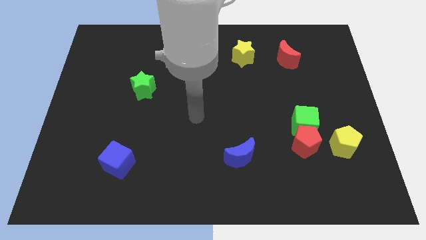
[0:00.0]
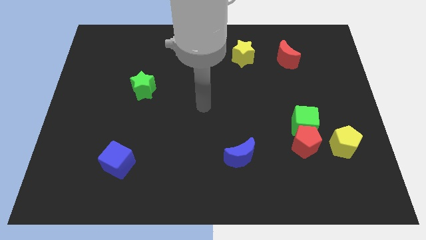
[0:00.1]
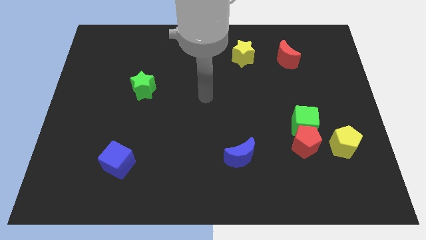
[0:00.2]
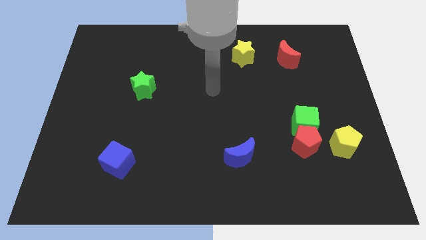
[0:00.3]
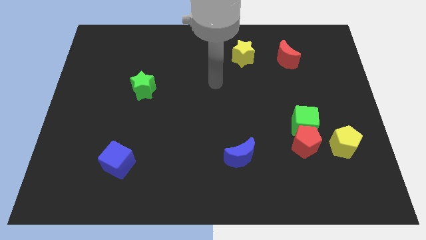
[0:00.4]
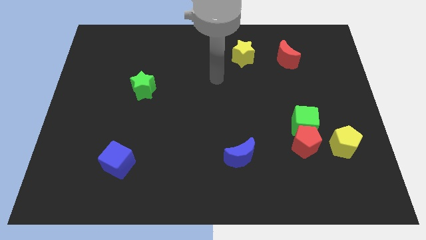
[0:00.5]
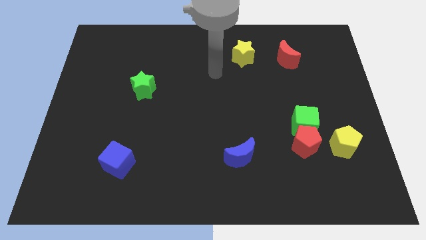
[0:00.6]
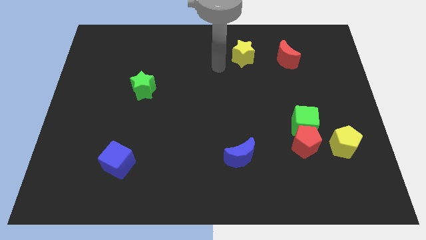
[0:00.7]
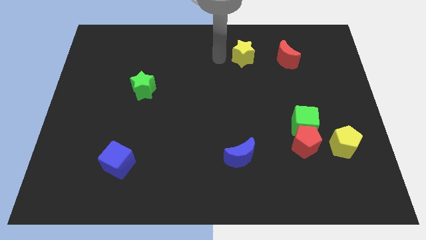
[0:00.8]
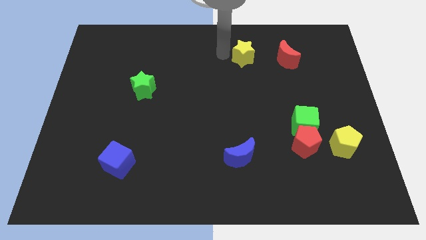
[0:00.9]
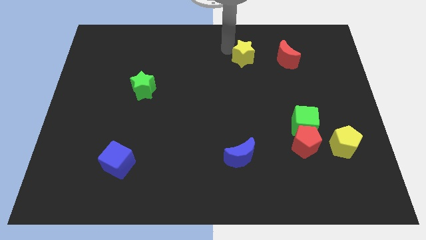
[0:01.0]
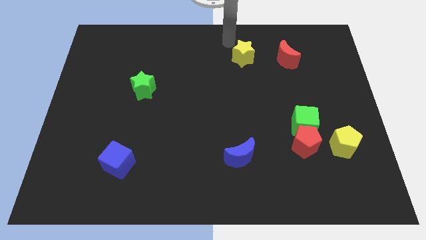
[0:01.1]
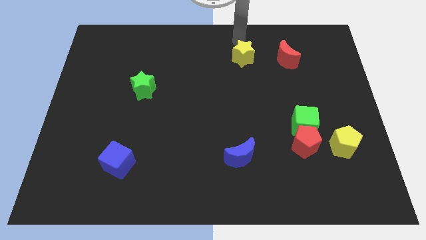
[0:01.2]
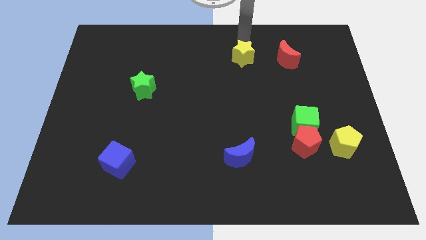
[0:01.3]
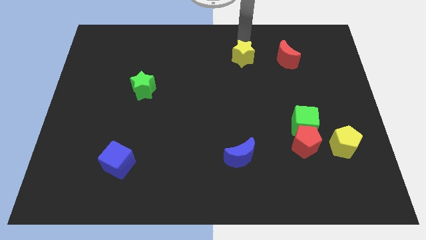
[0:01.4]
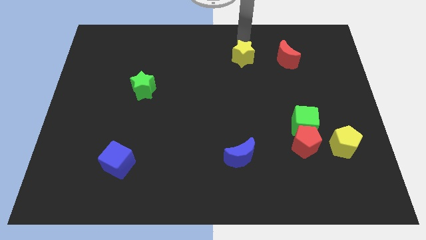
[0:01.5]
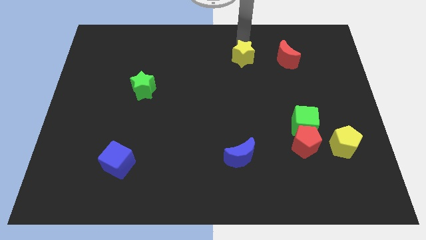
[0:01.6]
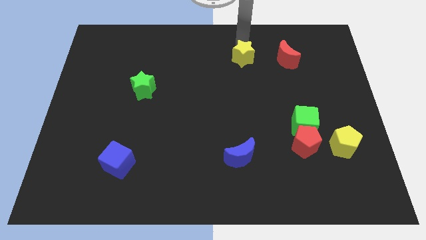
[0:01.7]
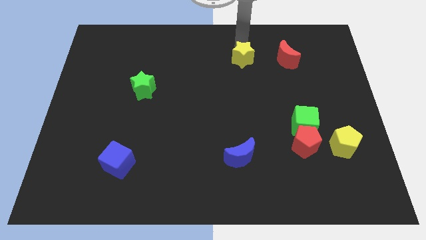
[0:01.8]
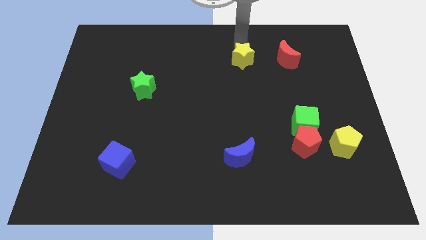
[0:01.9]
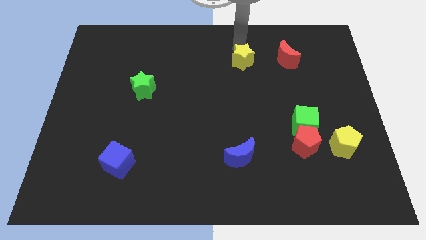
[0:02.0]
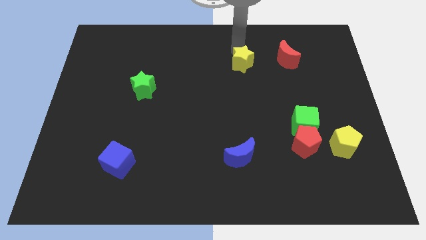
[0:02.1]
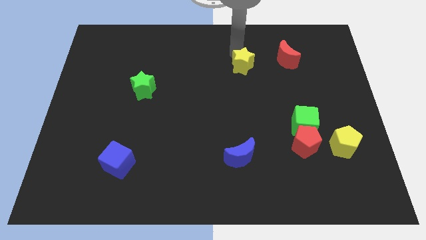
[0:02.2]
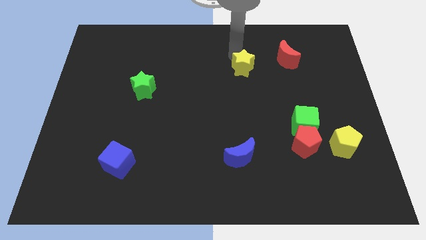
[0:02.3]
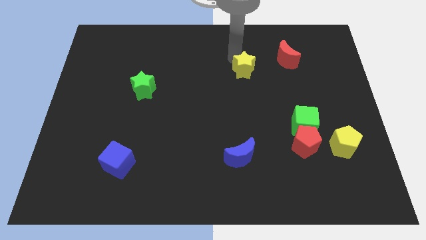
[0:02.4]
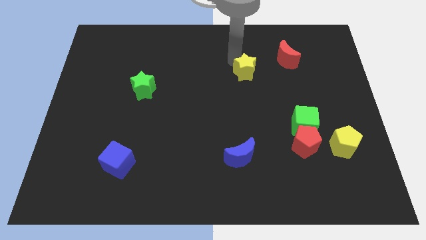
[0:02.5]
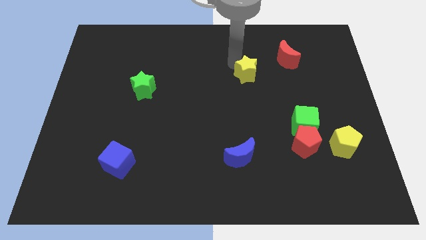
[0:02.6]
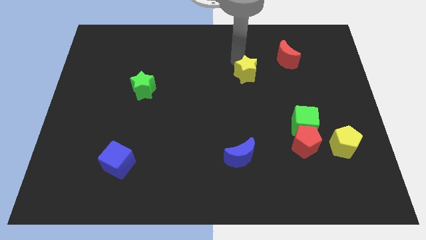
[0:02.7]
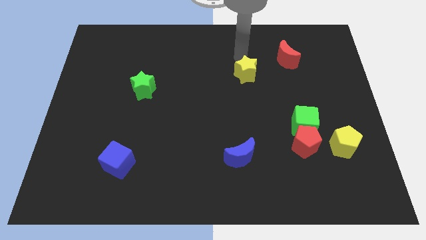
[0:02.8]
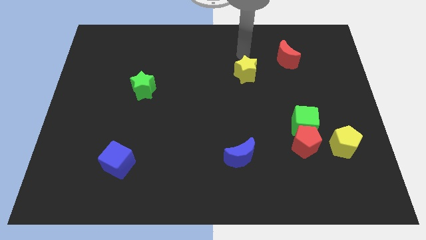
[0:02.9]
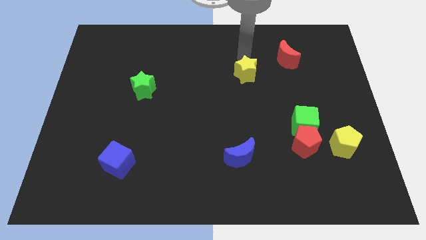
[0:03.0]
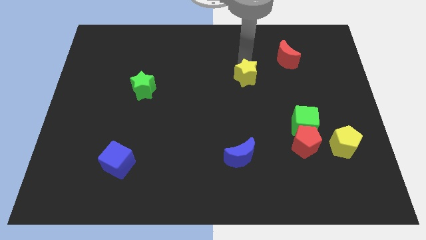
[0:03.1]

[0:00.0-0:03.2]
move the yellow star downwards a bit

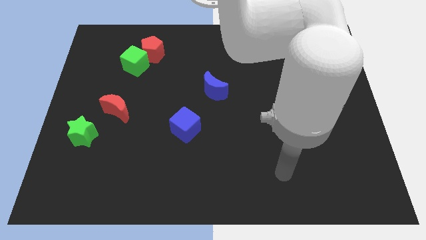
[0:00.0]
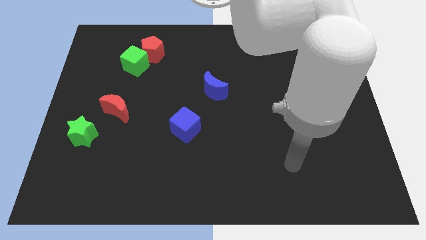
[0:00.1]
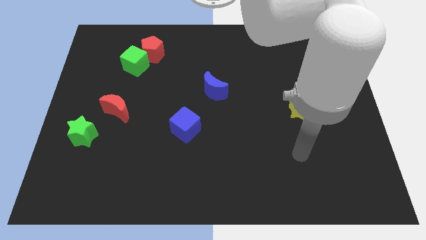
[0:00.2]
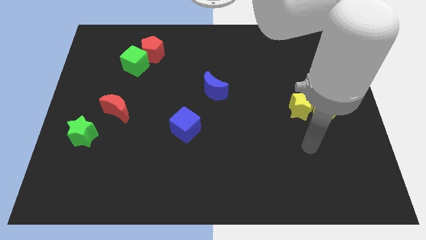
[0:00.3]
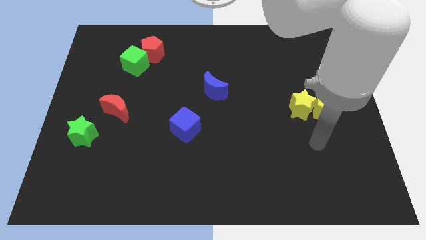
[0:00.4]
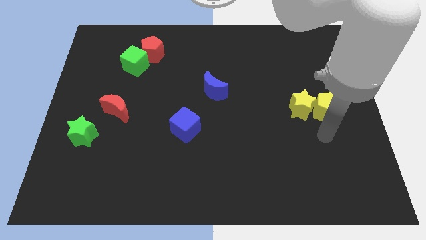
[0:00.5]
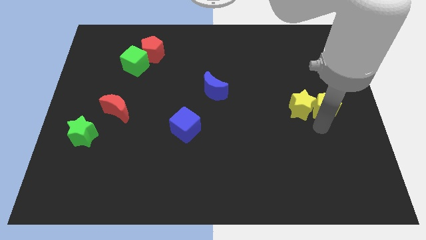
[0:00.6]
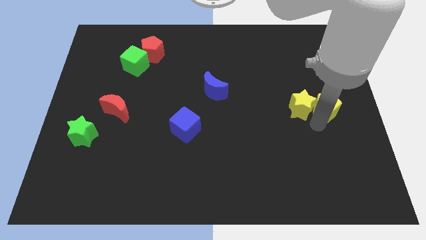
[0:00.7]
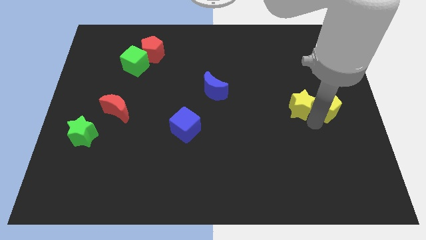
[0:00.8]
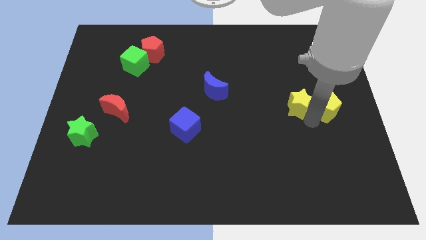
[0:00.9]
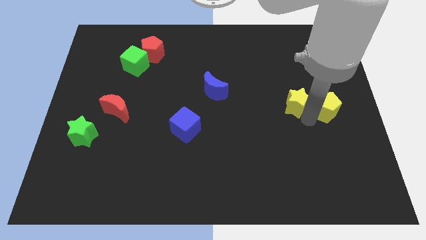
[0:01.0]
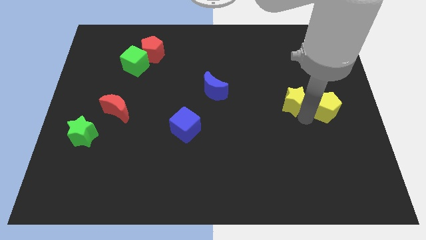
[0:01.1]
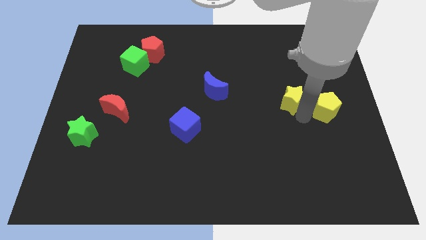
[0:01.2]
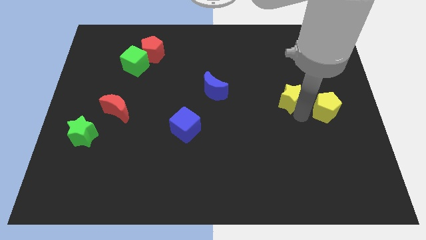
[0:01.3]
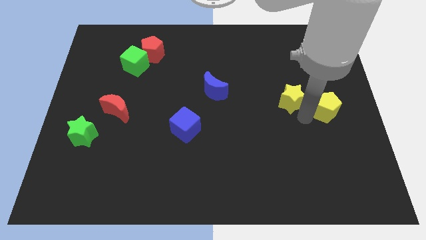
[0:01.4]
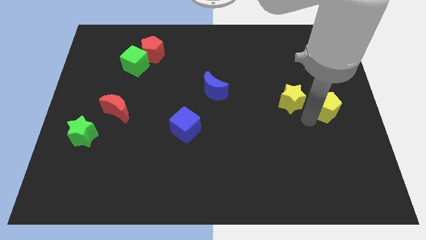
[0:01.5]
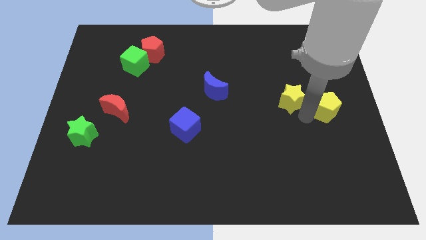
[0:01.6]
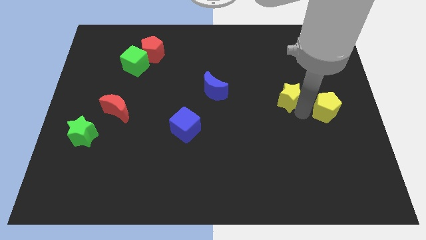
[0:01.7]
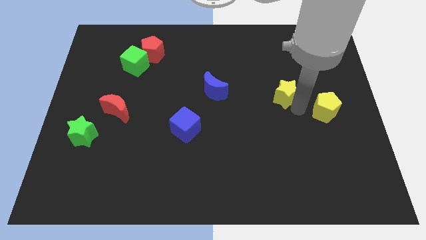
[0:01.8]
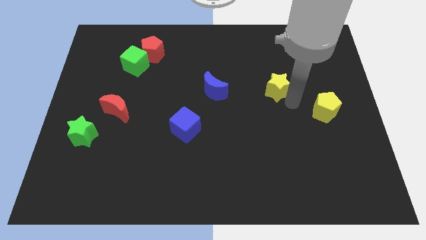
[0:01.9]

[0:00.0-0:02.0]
slide the yellow star upwards and left slightly

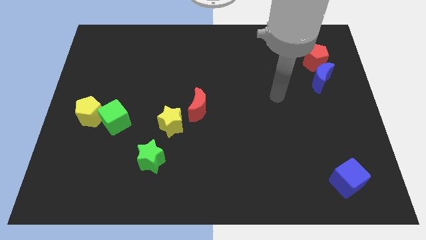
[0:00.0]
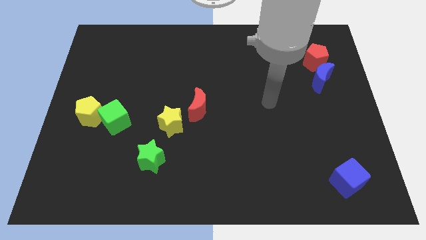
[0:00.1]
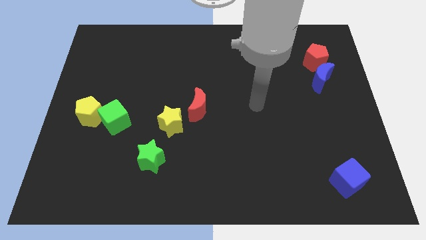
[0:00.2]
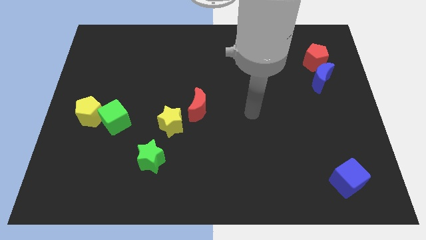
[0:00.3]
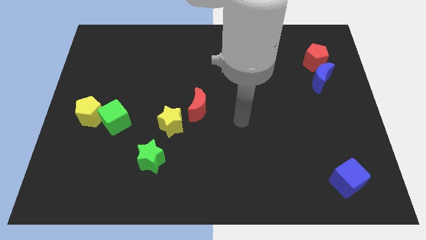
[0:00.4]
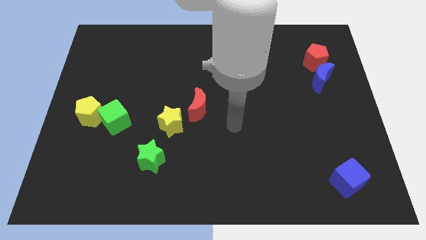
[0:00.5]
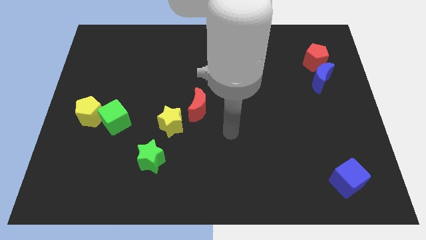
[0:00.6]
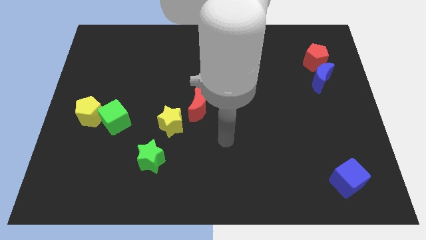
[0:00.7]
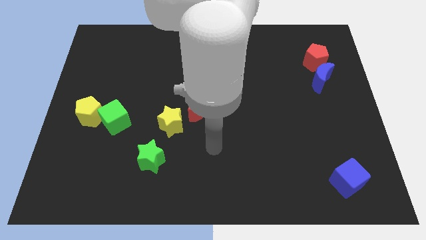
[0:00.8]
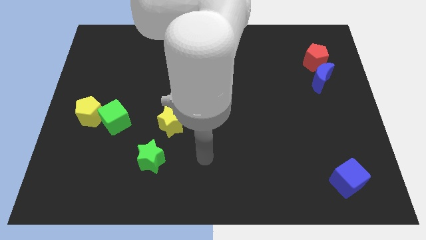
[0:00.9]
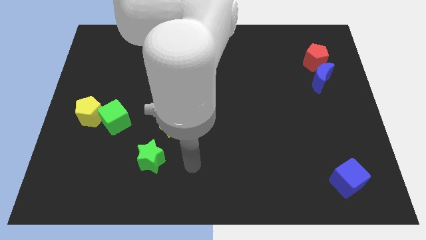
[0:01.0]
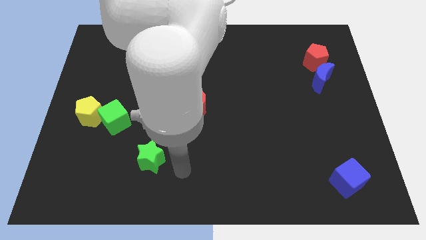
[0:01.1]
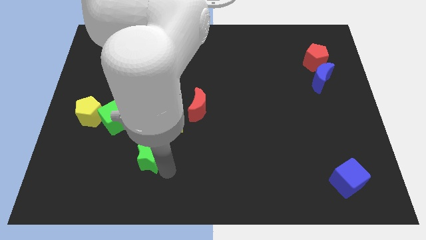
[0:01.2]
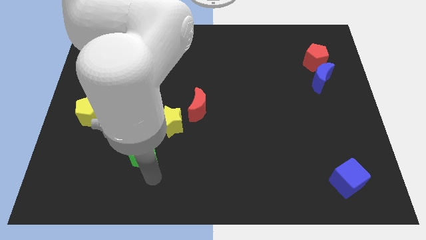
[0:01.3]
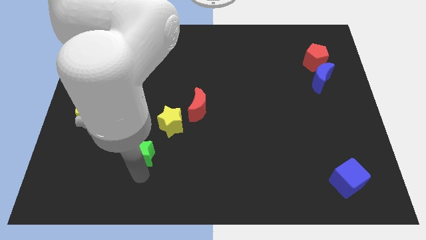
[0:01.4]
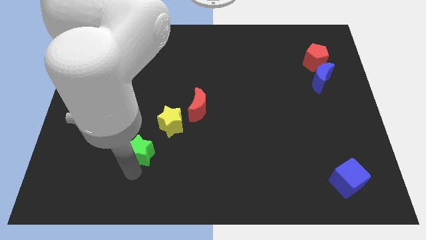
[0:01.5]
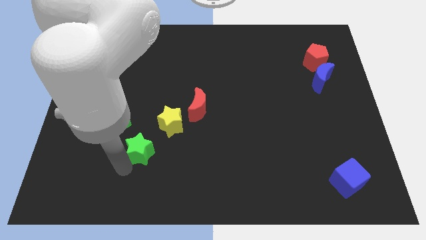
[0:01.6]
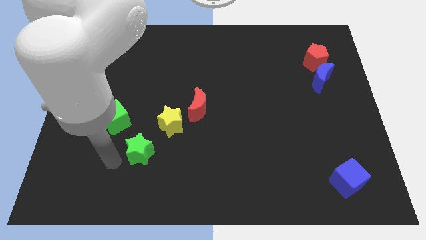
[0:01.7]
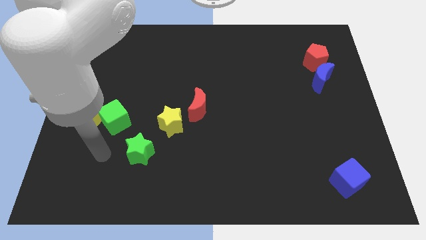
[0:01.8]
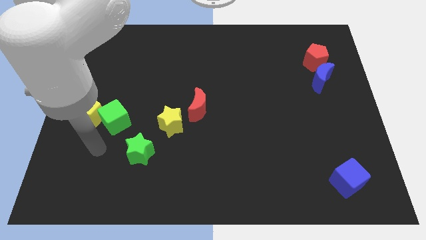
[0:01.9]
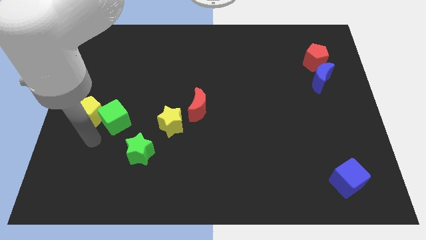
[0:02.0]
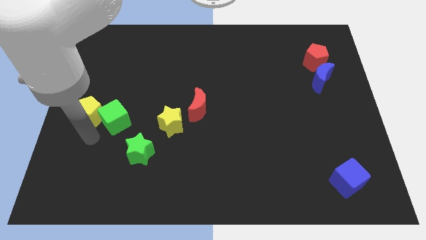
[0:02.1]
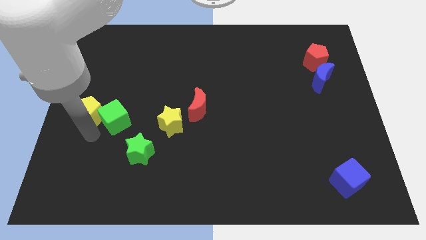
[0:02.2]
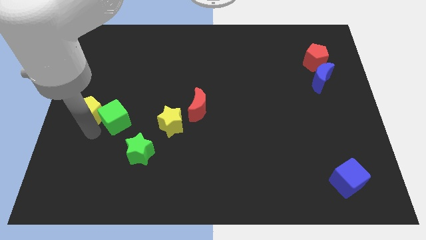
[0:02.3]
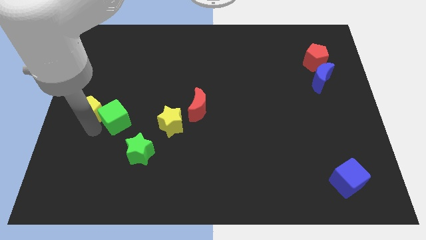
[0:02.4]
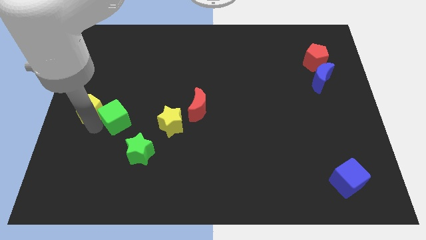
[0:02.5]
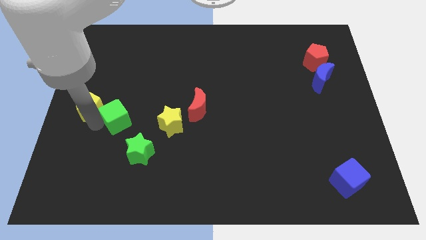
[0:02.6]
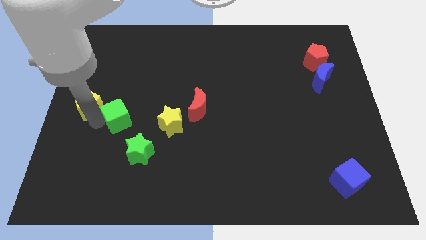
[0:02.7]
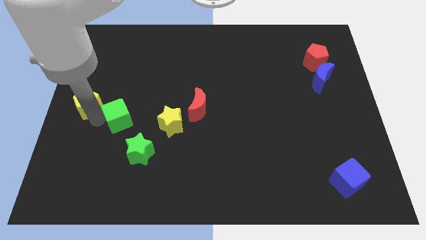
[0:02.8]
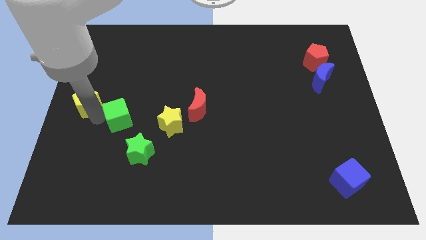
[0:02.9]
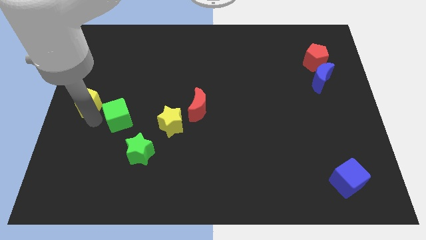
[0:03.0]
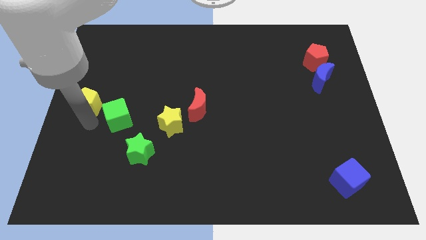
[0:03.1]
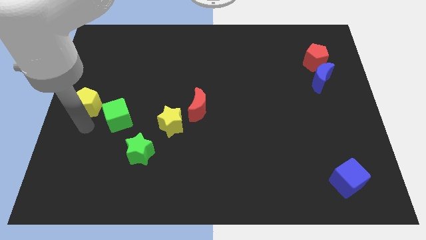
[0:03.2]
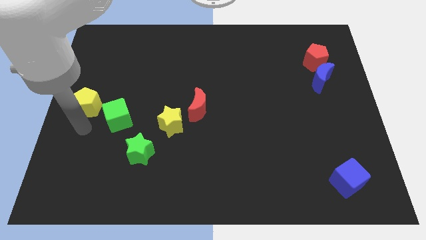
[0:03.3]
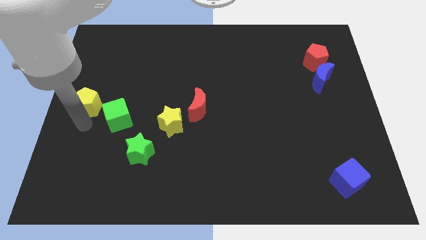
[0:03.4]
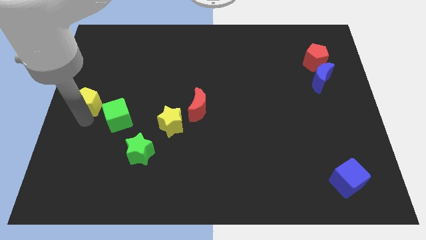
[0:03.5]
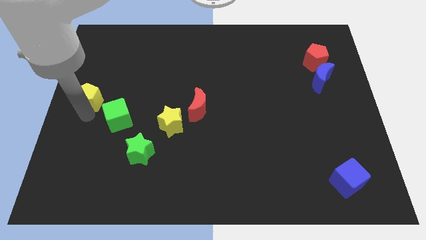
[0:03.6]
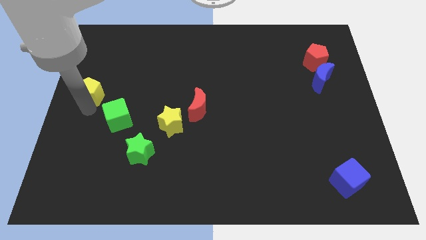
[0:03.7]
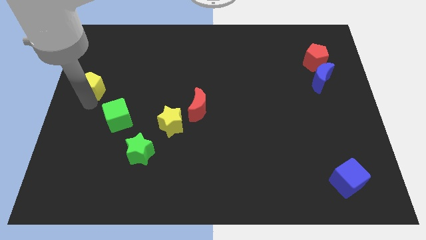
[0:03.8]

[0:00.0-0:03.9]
push the yellow pentagon somewhat upwards
